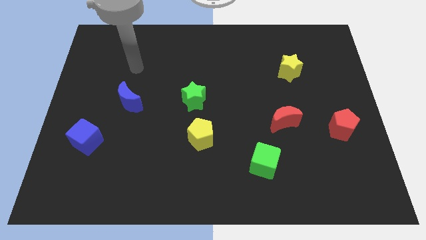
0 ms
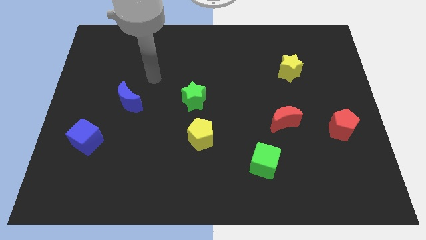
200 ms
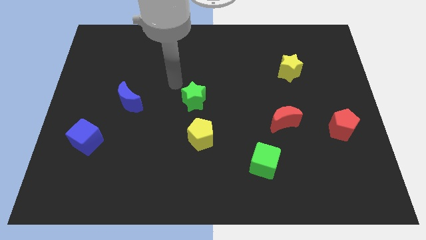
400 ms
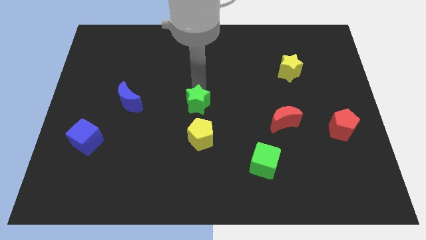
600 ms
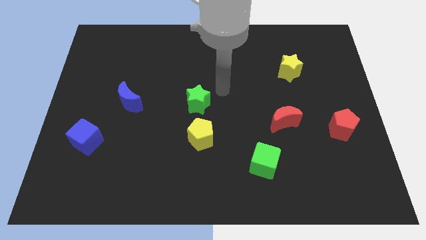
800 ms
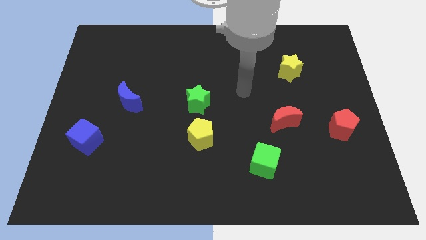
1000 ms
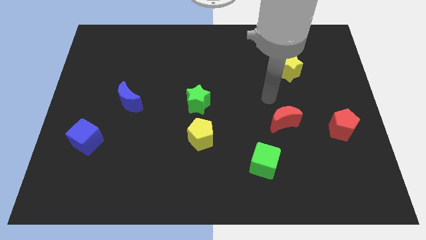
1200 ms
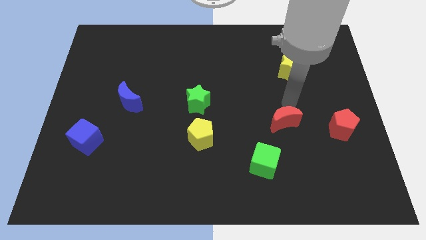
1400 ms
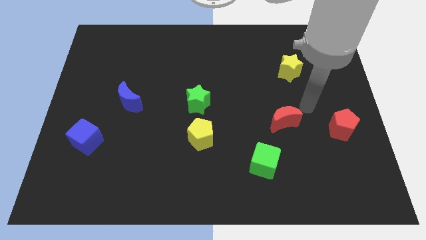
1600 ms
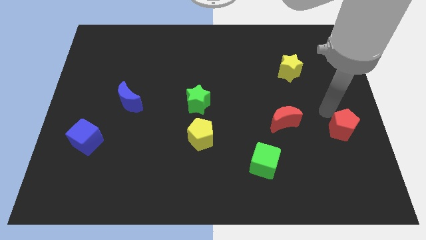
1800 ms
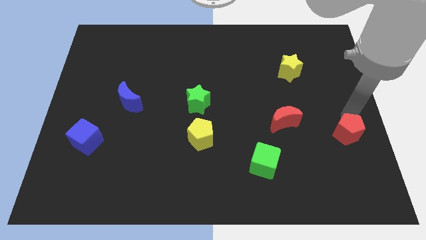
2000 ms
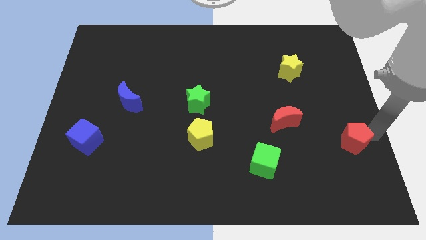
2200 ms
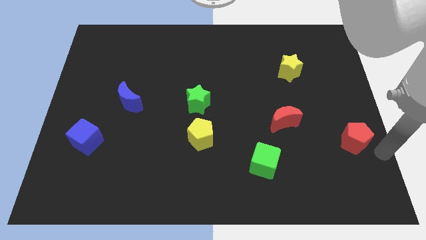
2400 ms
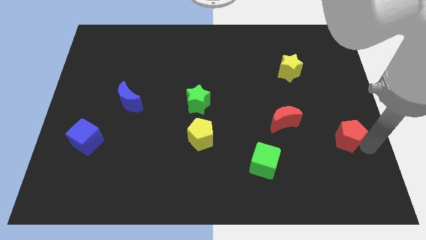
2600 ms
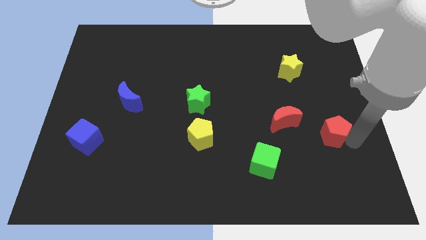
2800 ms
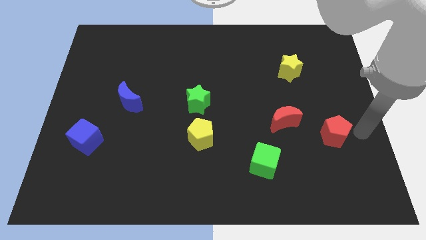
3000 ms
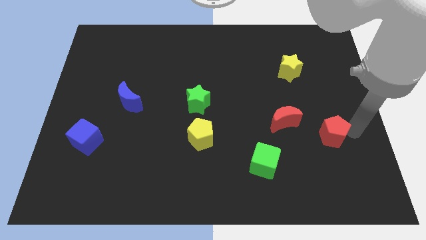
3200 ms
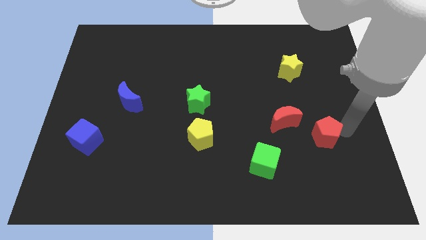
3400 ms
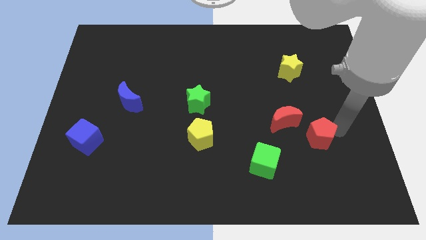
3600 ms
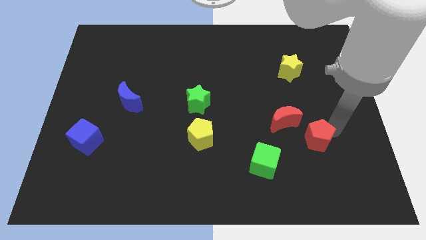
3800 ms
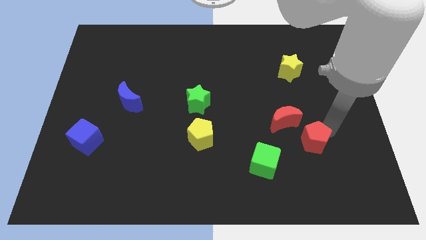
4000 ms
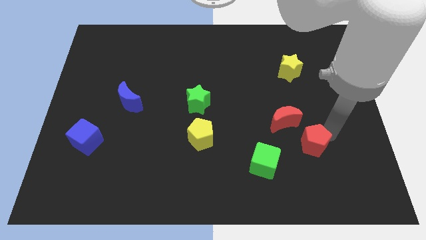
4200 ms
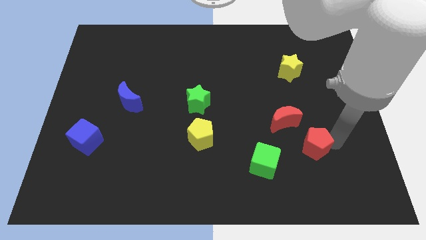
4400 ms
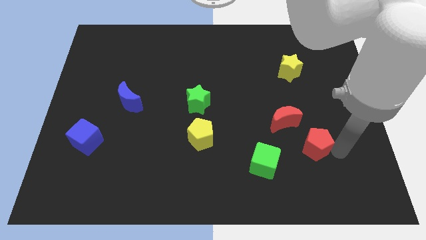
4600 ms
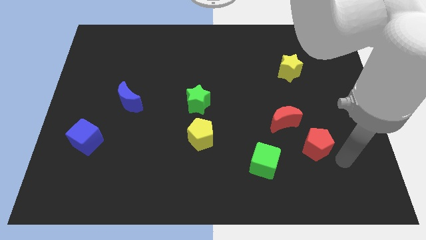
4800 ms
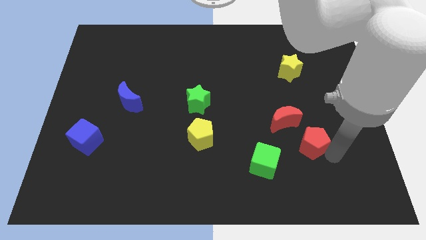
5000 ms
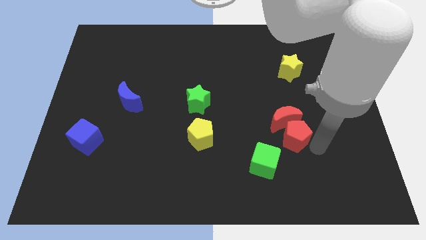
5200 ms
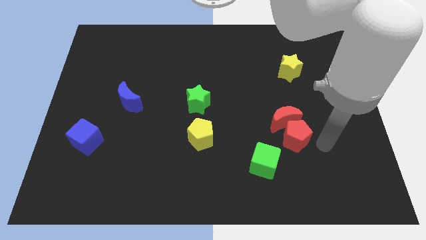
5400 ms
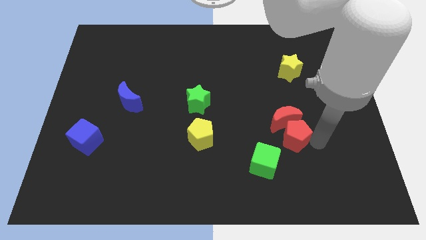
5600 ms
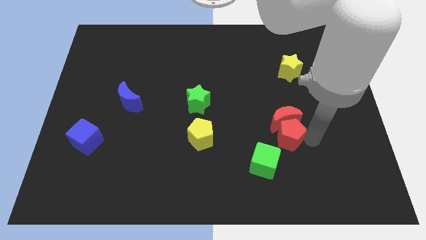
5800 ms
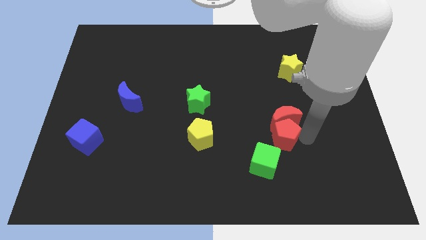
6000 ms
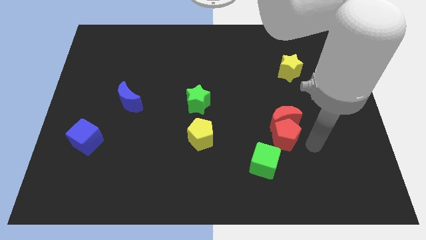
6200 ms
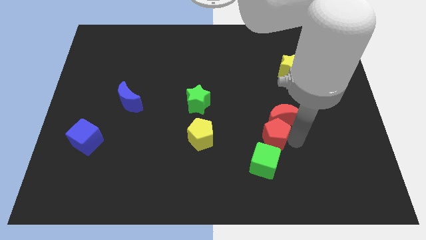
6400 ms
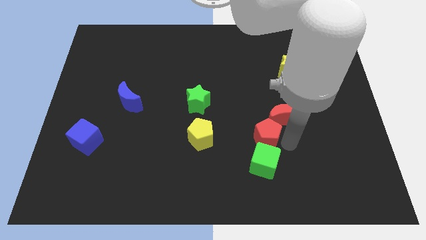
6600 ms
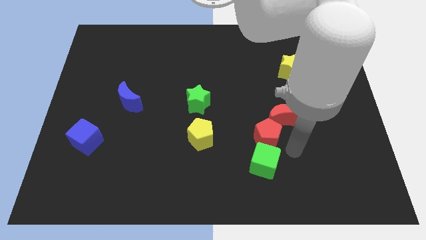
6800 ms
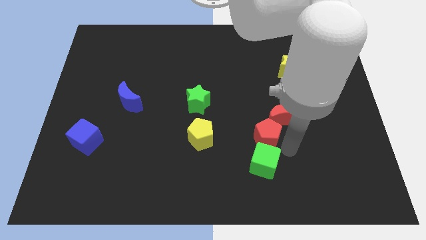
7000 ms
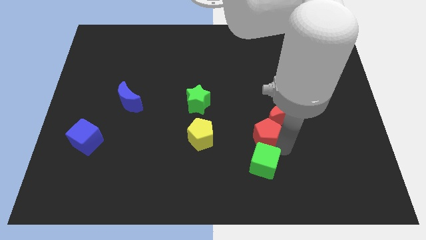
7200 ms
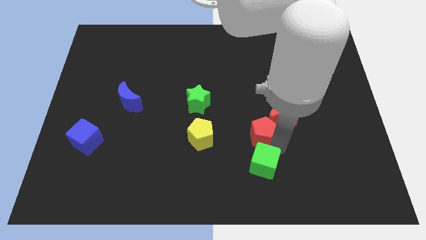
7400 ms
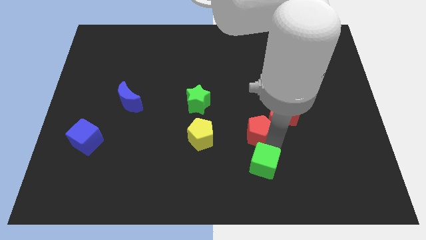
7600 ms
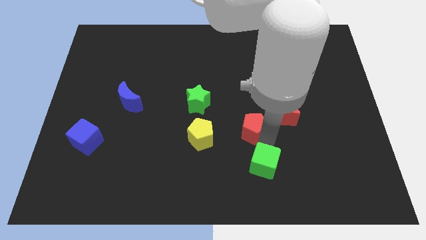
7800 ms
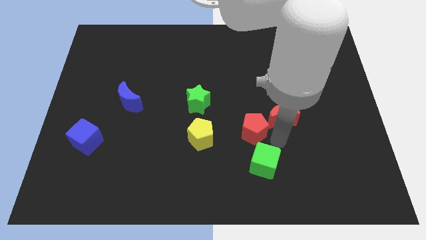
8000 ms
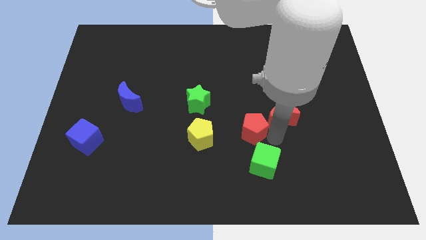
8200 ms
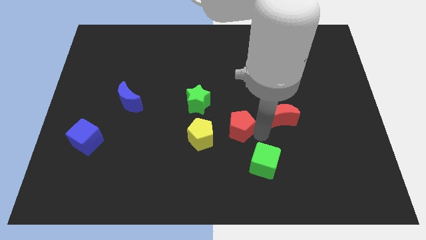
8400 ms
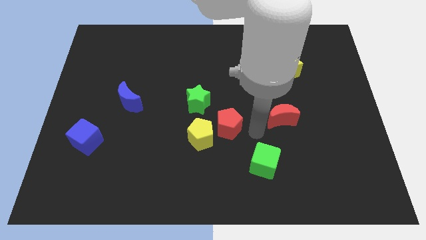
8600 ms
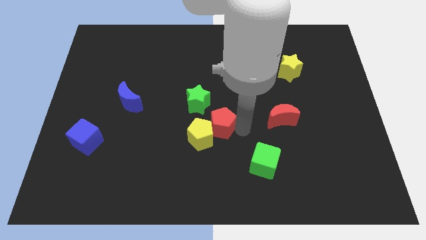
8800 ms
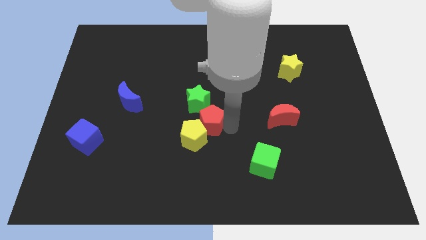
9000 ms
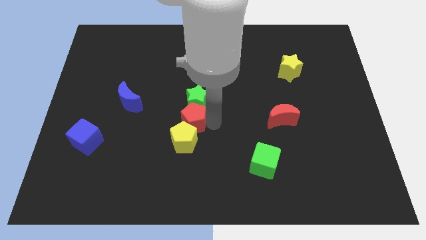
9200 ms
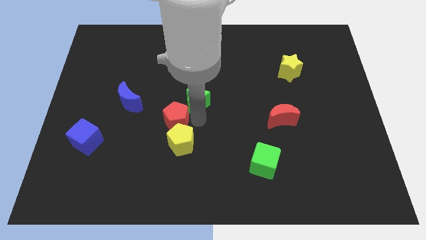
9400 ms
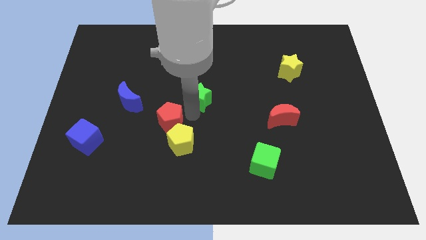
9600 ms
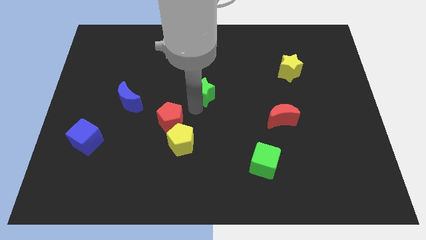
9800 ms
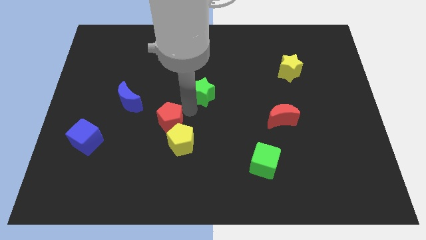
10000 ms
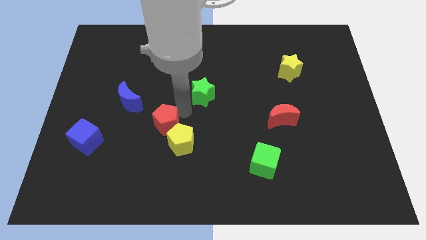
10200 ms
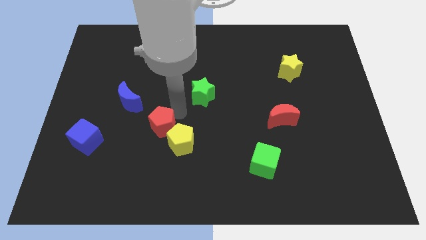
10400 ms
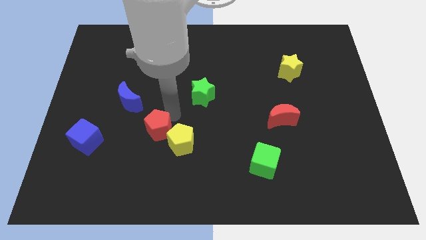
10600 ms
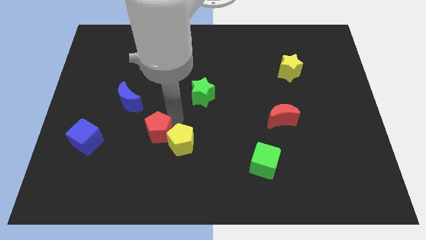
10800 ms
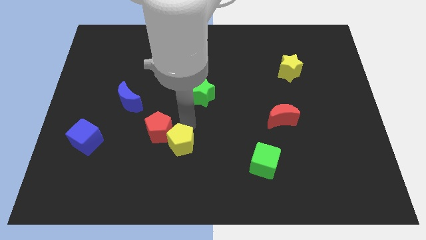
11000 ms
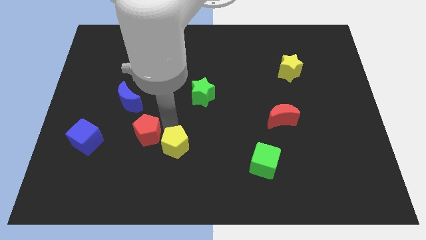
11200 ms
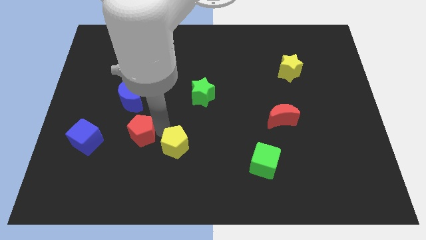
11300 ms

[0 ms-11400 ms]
put the red pentagon to the bottom side of the blue moon
